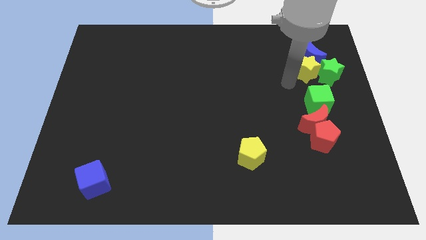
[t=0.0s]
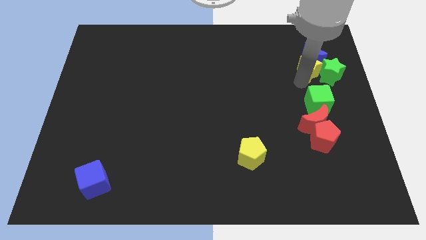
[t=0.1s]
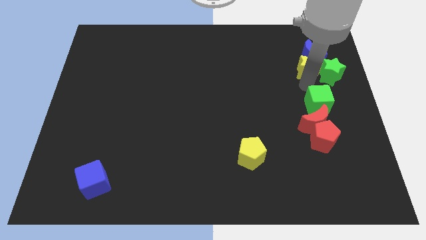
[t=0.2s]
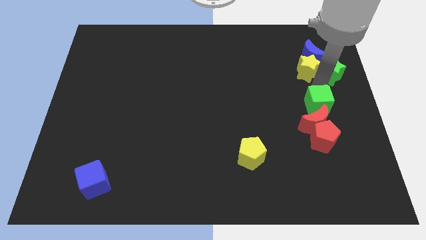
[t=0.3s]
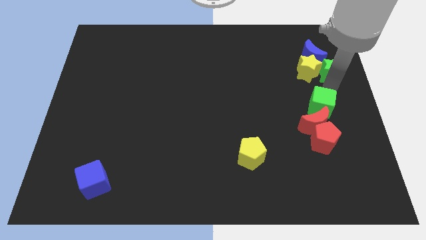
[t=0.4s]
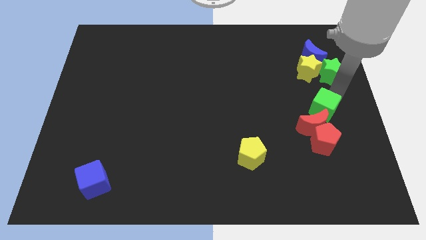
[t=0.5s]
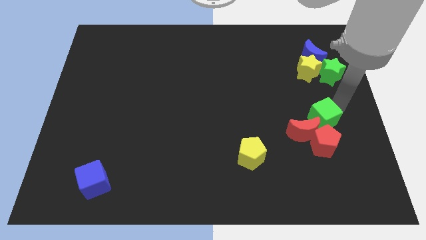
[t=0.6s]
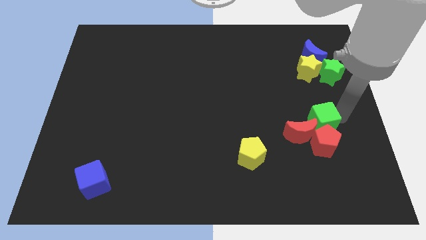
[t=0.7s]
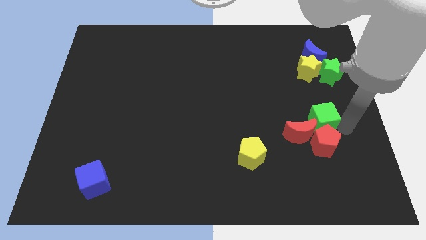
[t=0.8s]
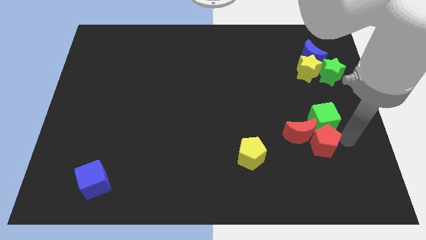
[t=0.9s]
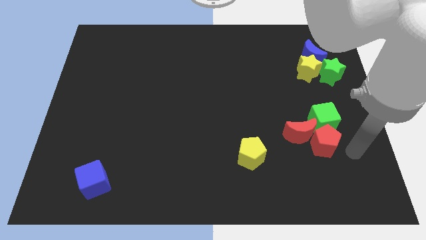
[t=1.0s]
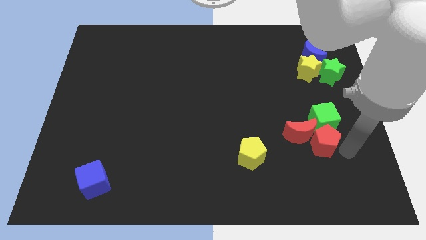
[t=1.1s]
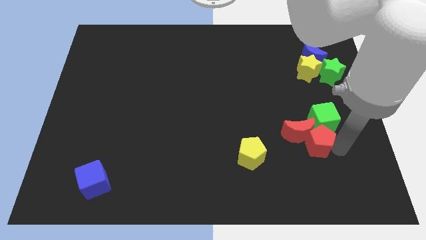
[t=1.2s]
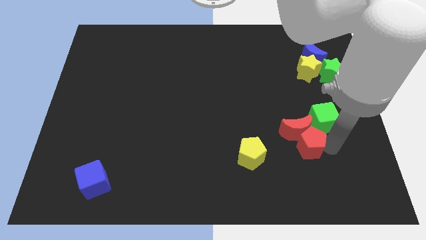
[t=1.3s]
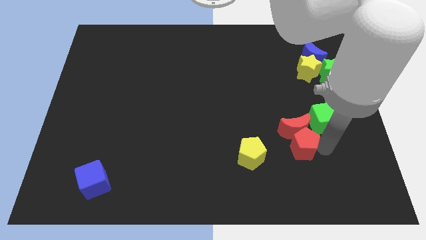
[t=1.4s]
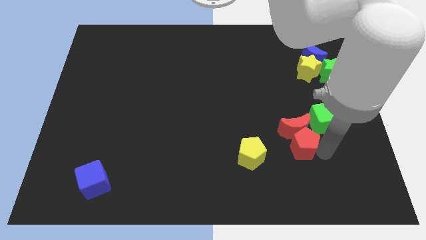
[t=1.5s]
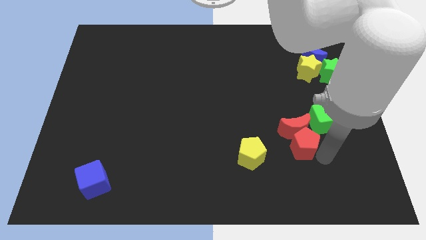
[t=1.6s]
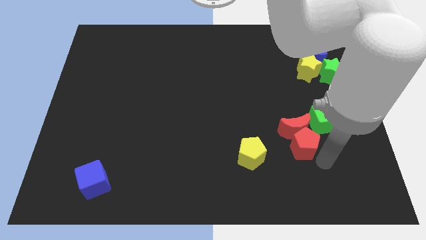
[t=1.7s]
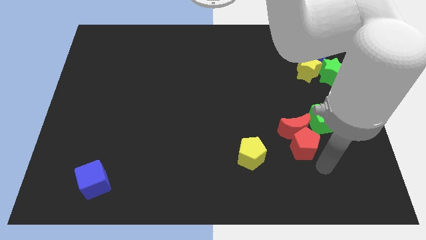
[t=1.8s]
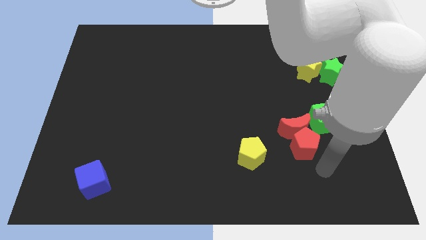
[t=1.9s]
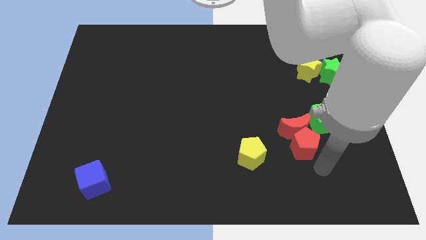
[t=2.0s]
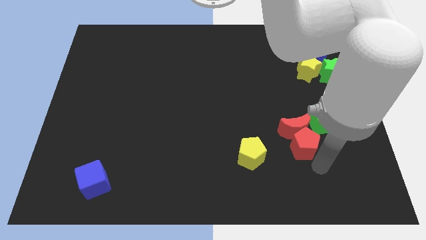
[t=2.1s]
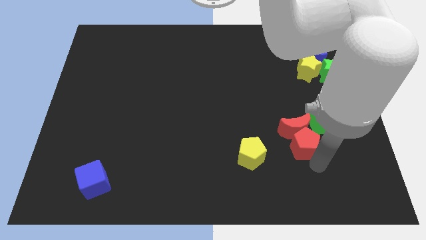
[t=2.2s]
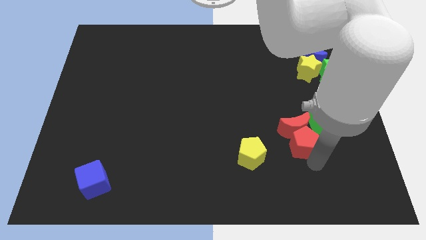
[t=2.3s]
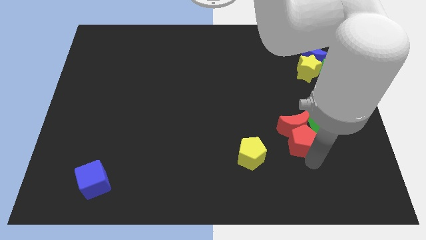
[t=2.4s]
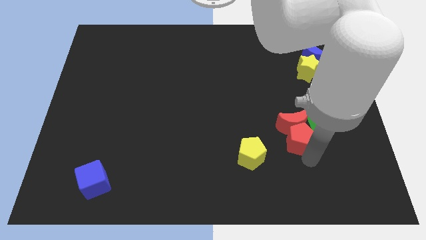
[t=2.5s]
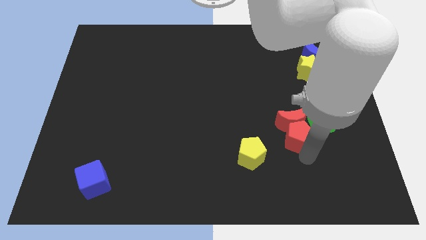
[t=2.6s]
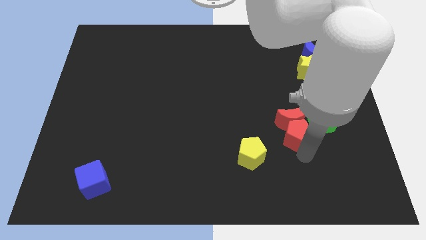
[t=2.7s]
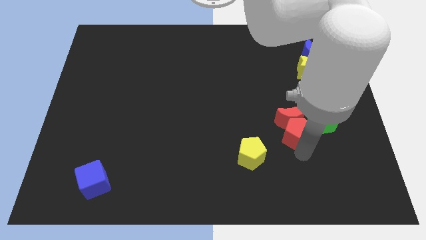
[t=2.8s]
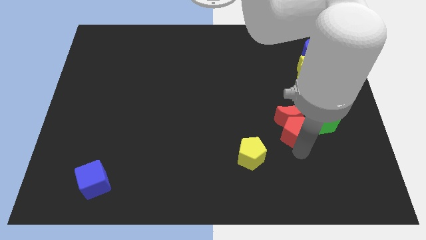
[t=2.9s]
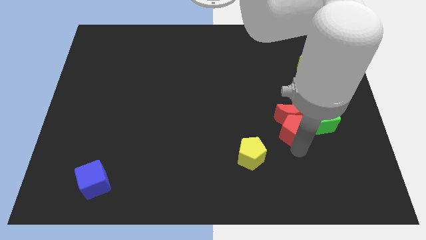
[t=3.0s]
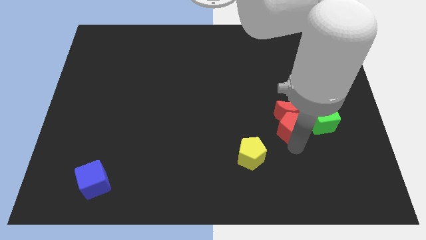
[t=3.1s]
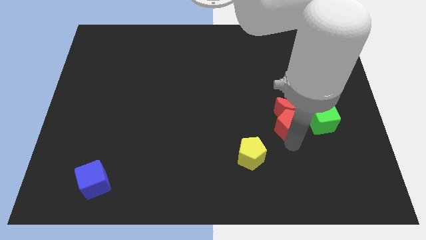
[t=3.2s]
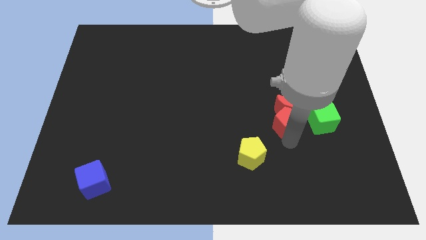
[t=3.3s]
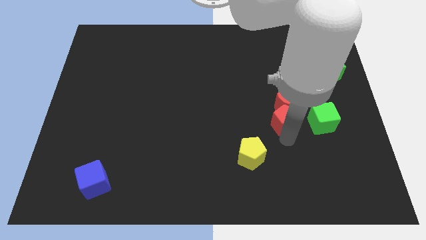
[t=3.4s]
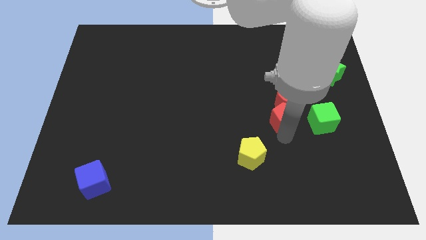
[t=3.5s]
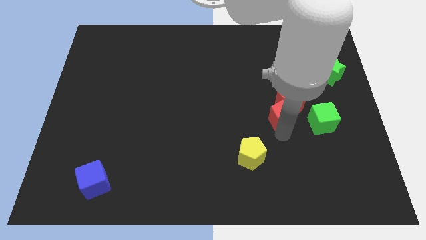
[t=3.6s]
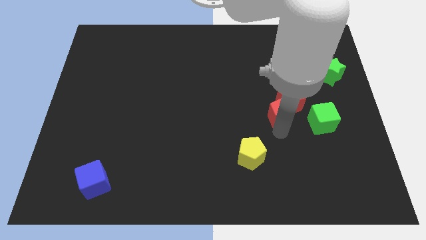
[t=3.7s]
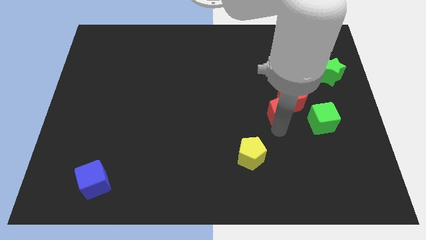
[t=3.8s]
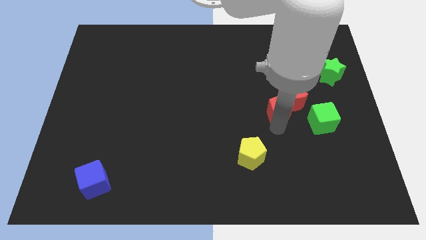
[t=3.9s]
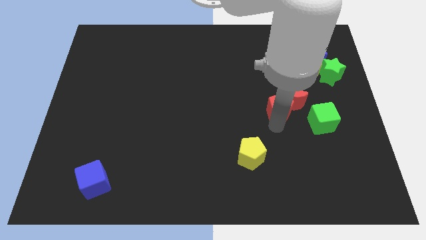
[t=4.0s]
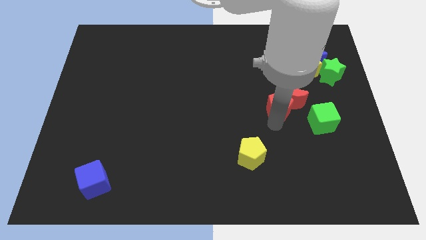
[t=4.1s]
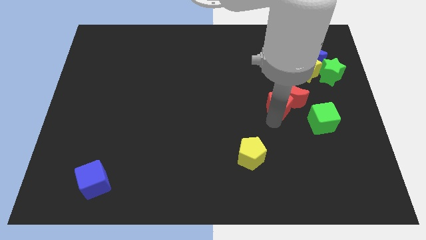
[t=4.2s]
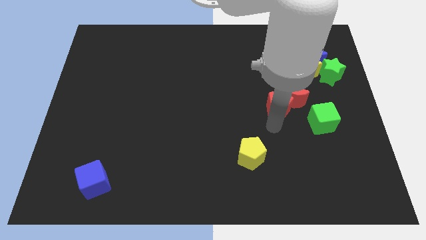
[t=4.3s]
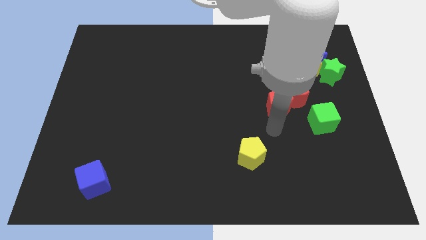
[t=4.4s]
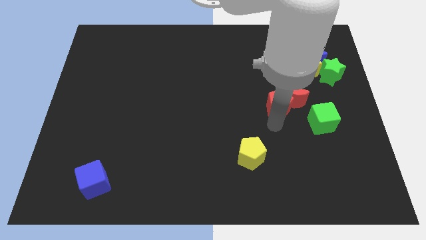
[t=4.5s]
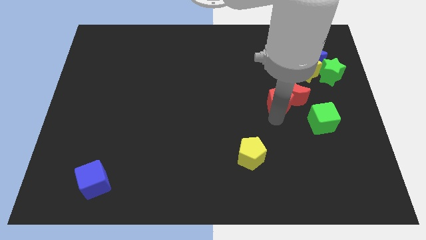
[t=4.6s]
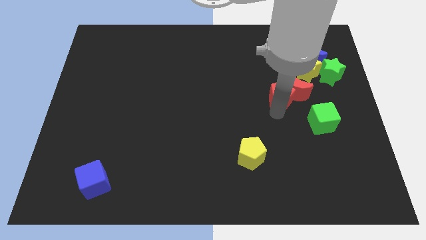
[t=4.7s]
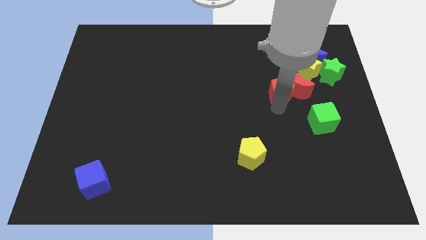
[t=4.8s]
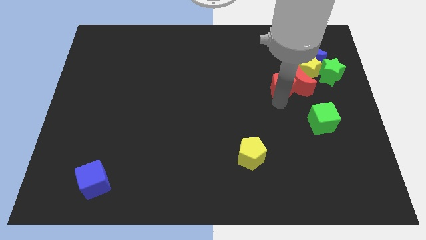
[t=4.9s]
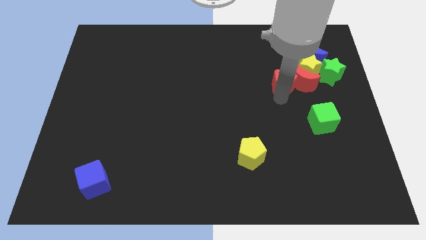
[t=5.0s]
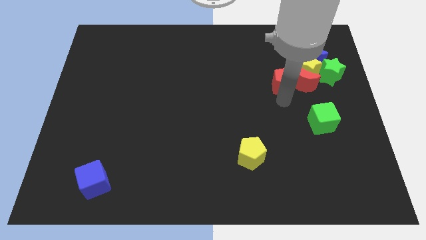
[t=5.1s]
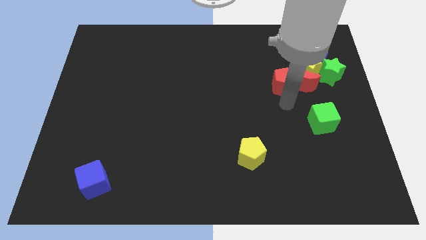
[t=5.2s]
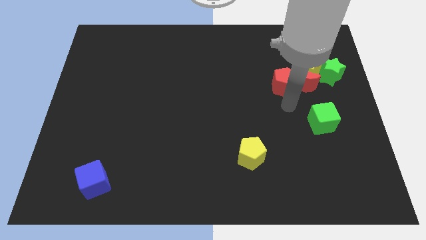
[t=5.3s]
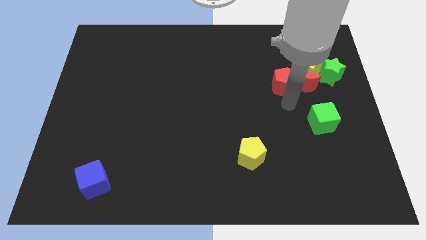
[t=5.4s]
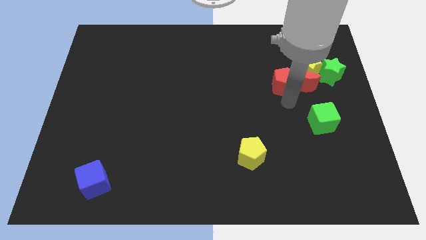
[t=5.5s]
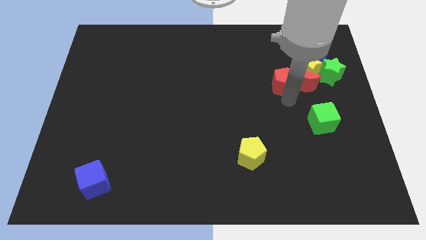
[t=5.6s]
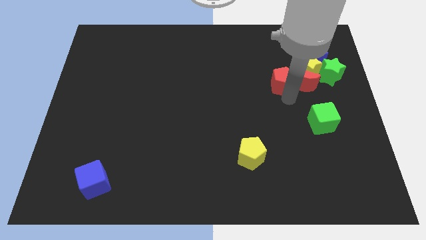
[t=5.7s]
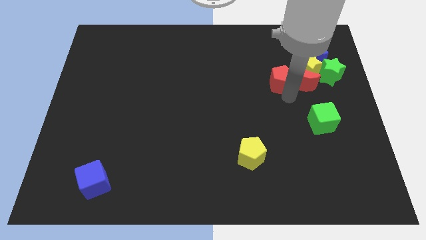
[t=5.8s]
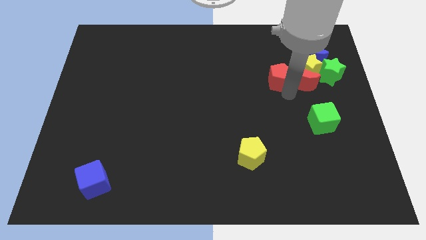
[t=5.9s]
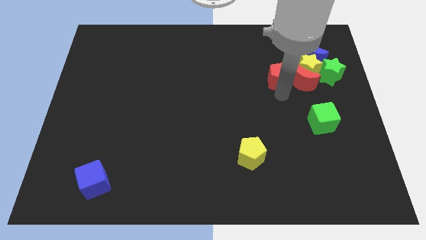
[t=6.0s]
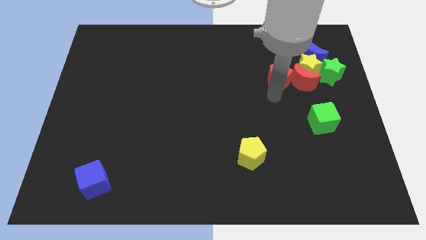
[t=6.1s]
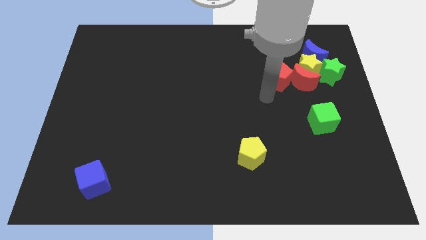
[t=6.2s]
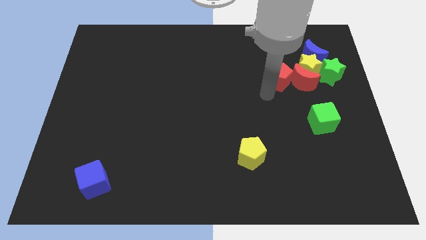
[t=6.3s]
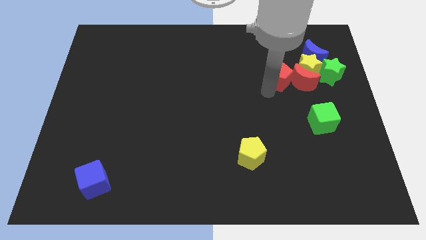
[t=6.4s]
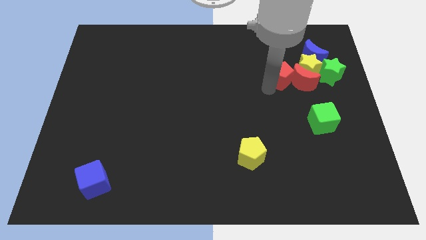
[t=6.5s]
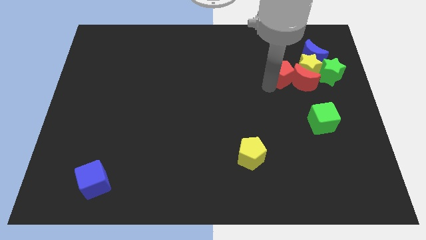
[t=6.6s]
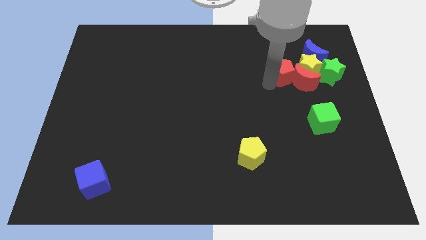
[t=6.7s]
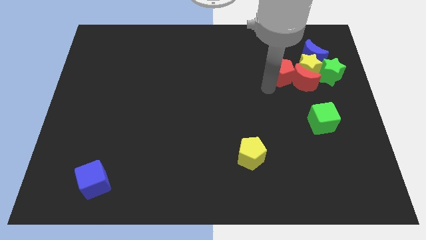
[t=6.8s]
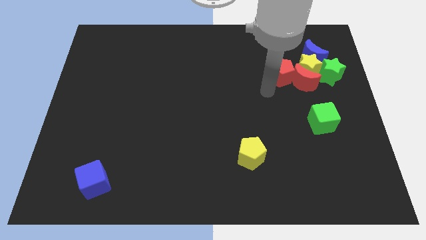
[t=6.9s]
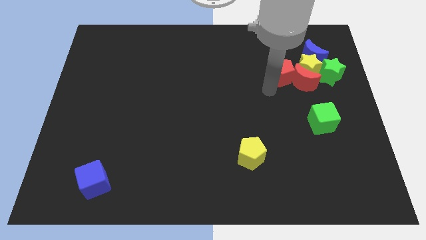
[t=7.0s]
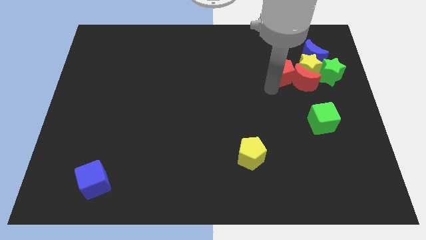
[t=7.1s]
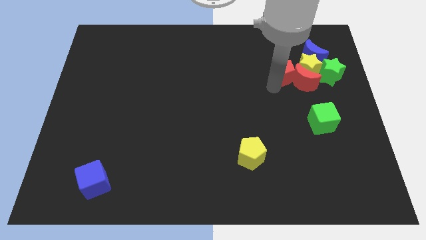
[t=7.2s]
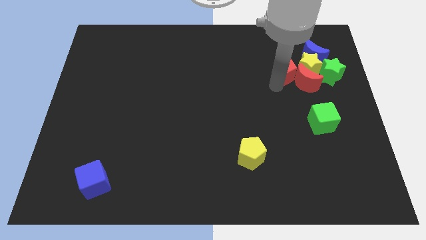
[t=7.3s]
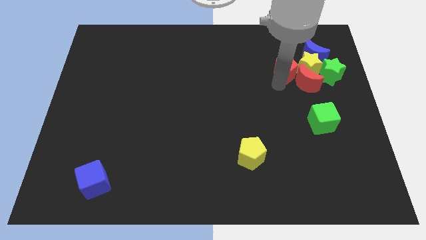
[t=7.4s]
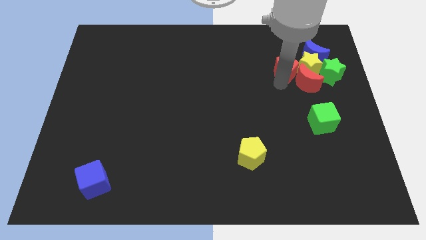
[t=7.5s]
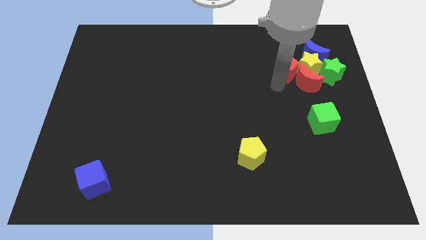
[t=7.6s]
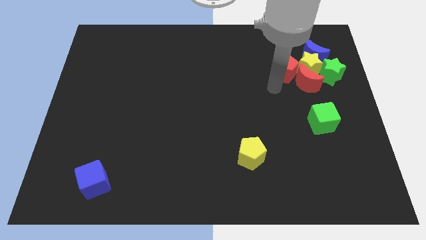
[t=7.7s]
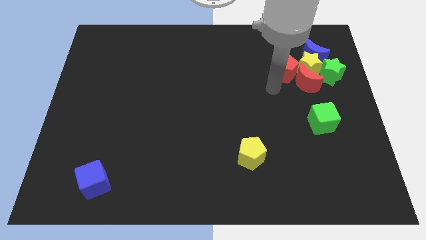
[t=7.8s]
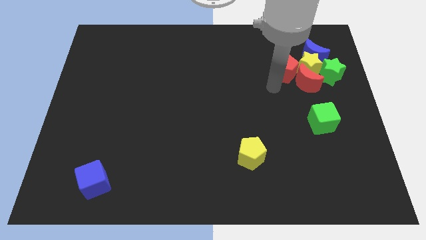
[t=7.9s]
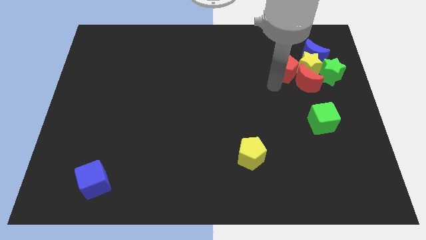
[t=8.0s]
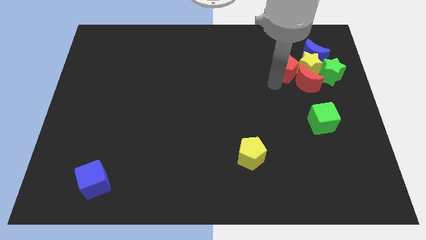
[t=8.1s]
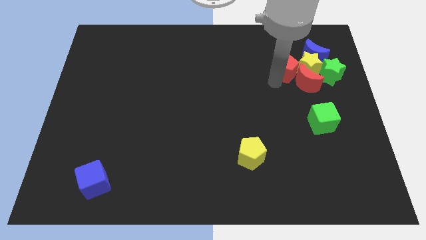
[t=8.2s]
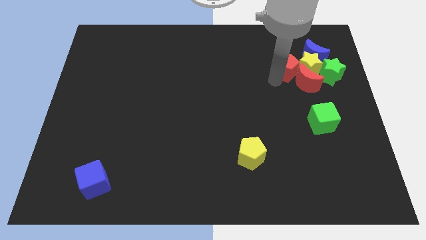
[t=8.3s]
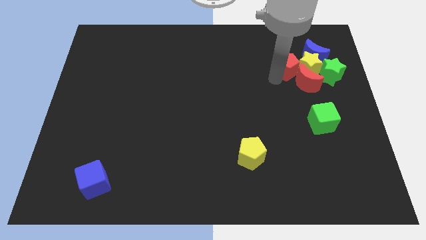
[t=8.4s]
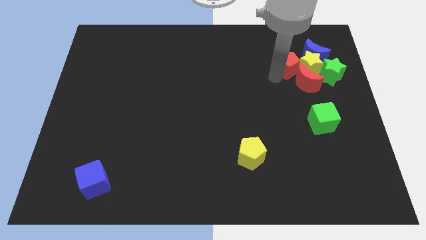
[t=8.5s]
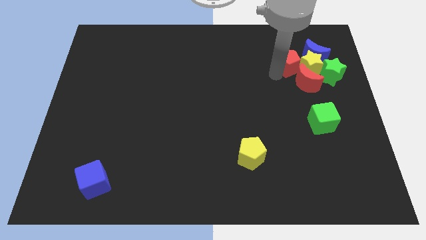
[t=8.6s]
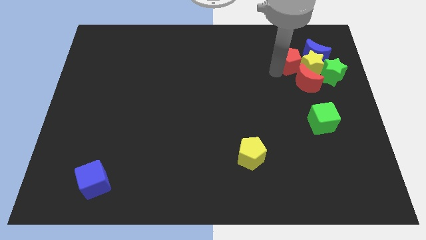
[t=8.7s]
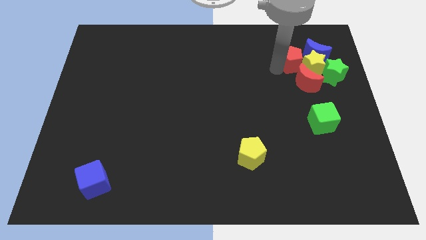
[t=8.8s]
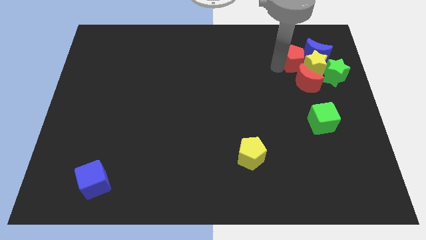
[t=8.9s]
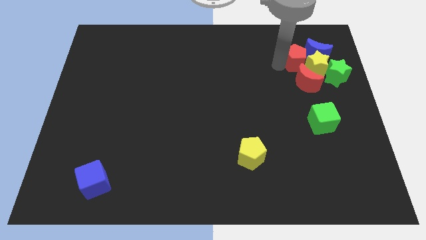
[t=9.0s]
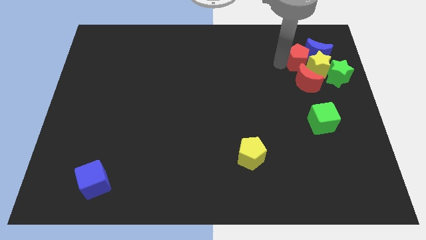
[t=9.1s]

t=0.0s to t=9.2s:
push the red pentagon close to the blue moon
